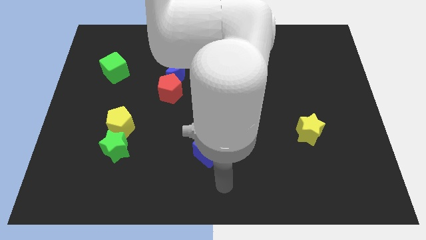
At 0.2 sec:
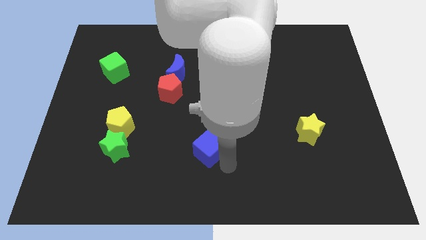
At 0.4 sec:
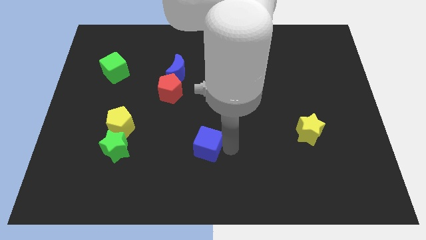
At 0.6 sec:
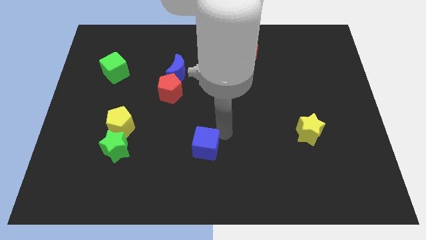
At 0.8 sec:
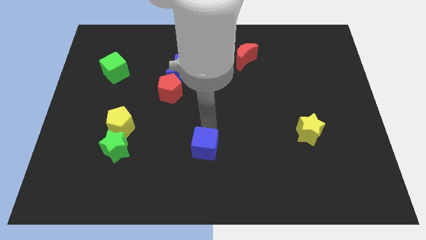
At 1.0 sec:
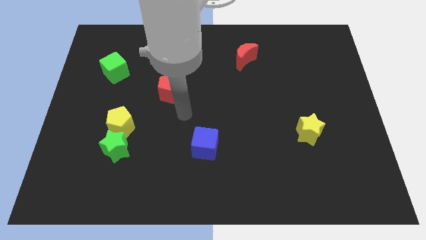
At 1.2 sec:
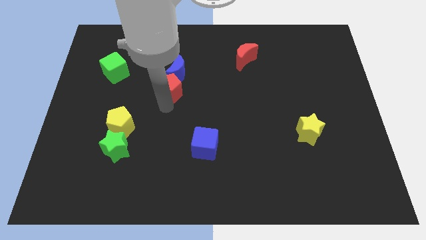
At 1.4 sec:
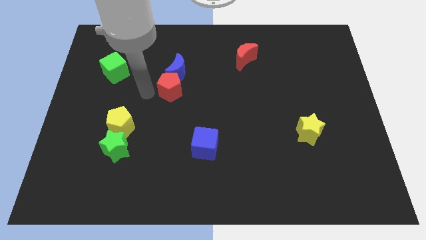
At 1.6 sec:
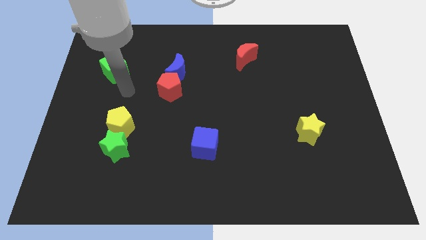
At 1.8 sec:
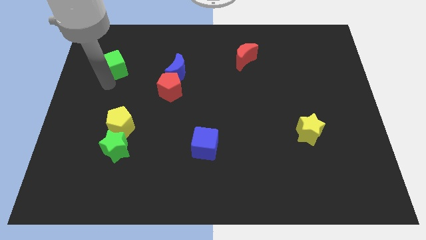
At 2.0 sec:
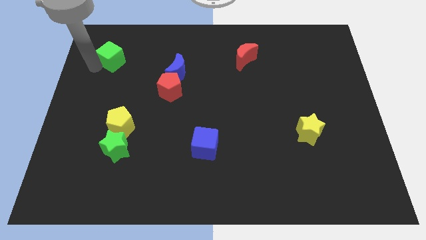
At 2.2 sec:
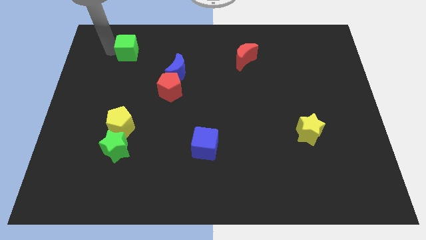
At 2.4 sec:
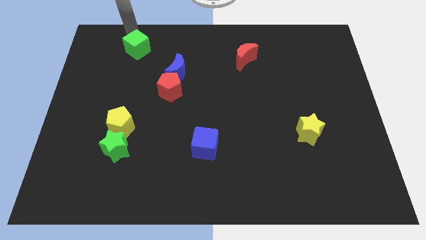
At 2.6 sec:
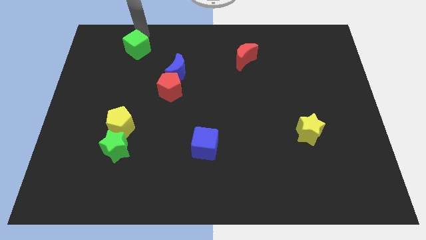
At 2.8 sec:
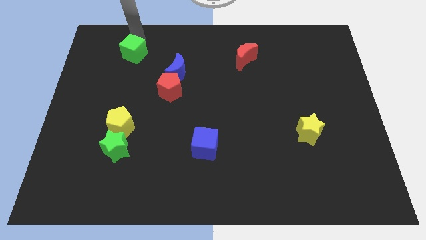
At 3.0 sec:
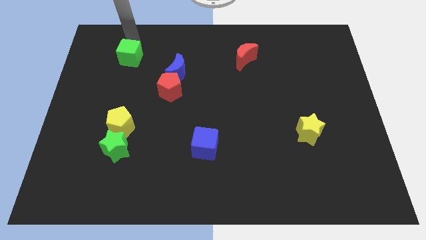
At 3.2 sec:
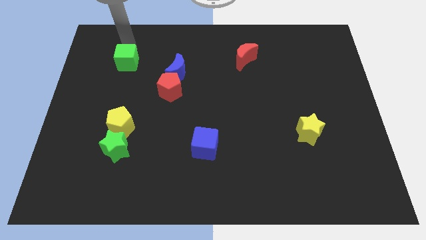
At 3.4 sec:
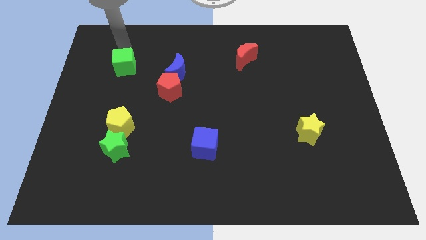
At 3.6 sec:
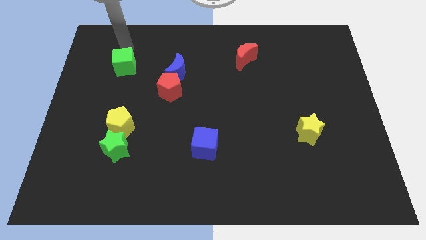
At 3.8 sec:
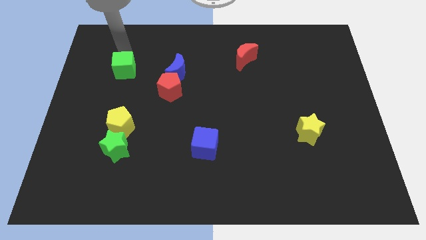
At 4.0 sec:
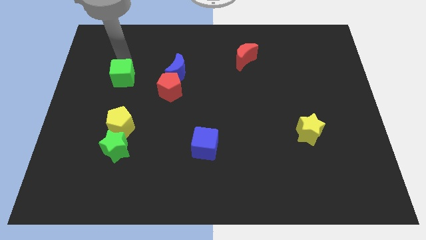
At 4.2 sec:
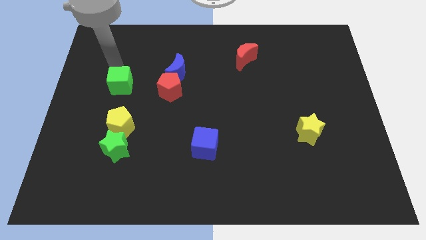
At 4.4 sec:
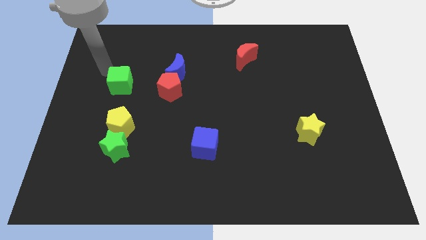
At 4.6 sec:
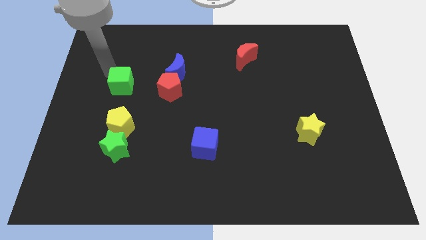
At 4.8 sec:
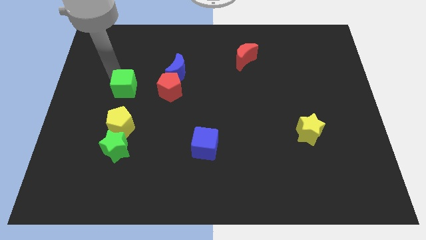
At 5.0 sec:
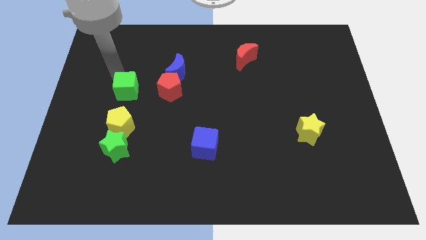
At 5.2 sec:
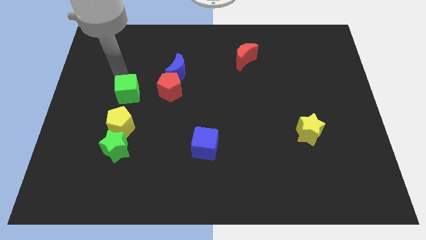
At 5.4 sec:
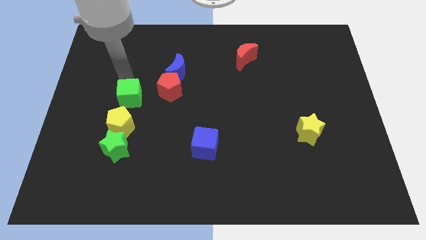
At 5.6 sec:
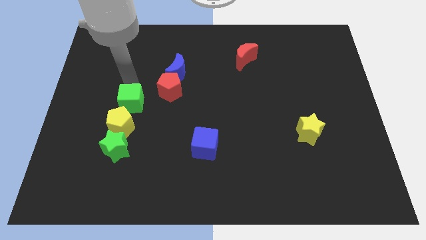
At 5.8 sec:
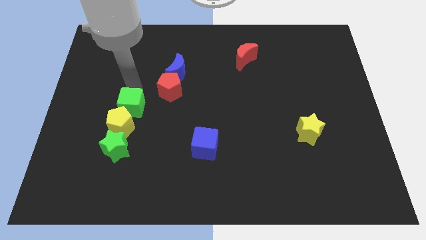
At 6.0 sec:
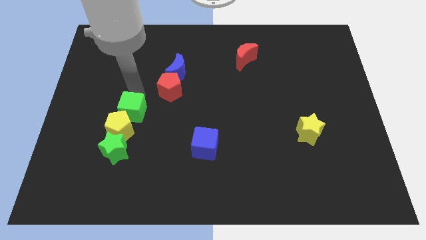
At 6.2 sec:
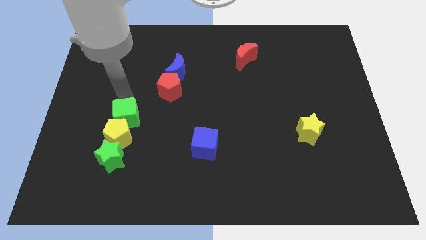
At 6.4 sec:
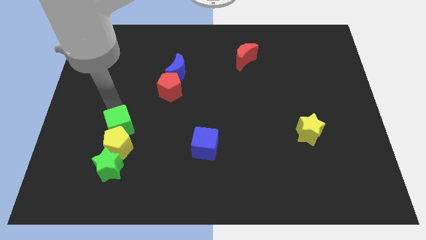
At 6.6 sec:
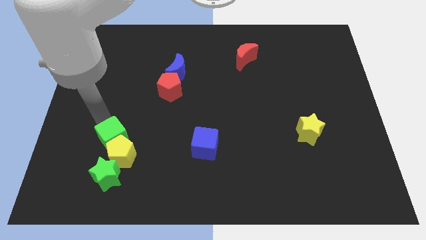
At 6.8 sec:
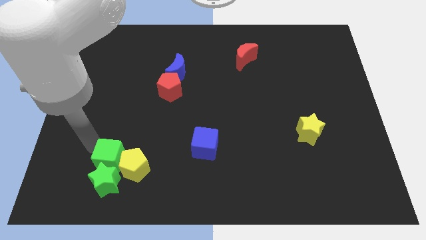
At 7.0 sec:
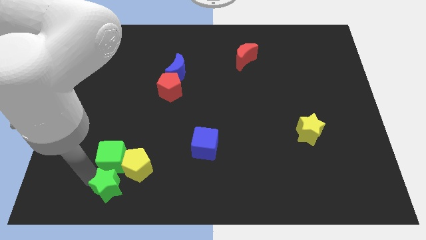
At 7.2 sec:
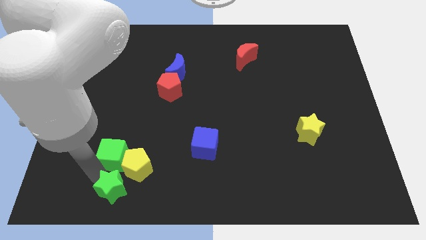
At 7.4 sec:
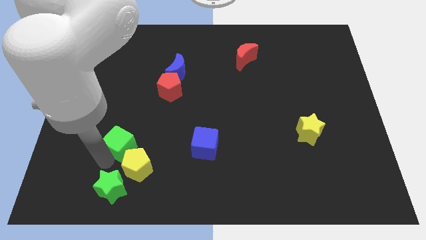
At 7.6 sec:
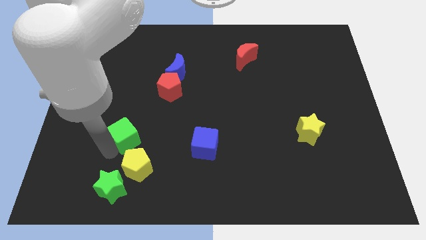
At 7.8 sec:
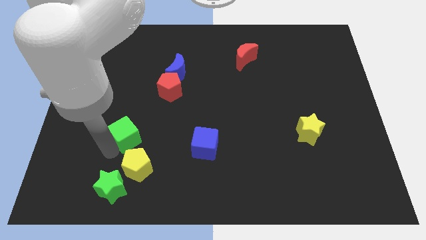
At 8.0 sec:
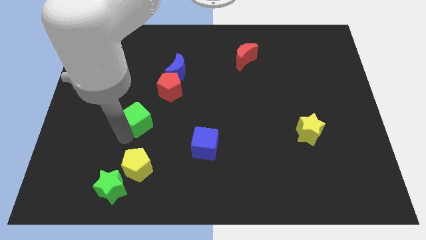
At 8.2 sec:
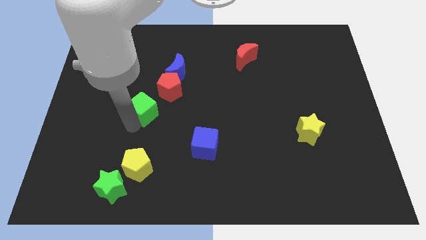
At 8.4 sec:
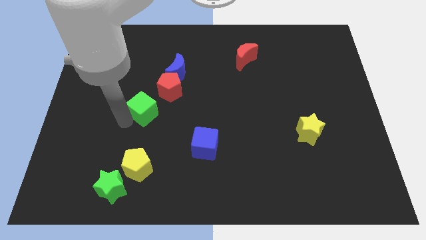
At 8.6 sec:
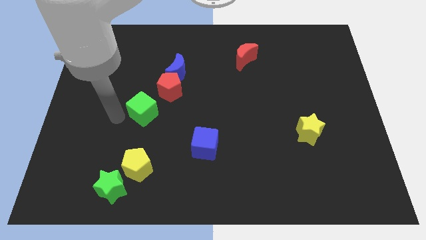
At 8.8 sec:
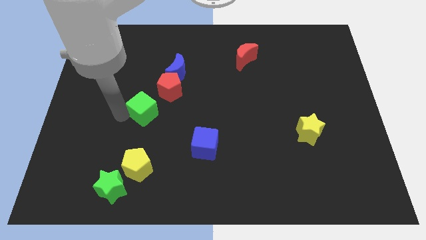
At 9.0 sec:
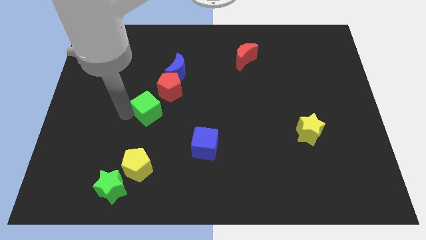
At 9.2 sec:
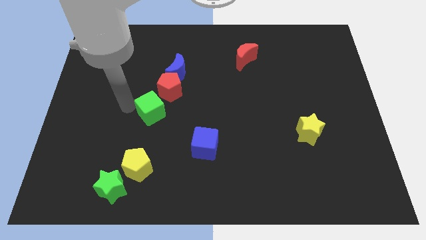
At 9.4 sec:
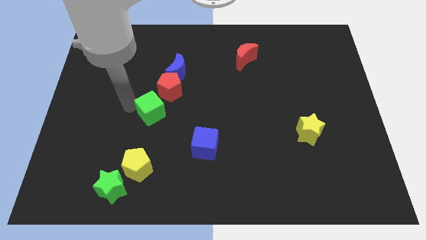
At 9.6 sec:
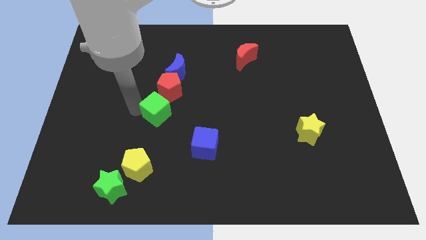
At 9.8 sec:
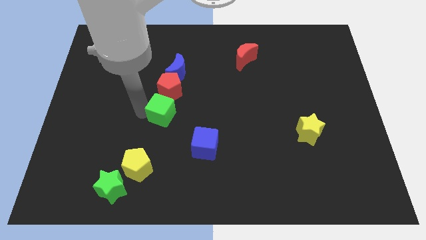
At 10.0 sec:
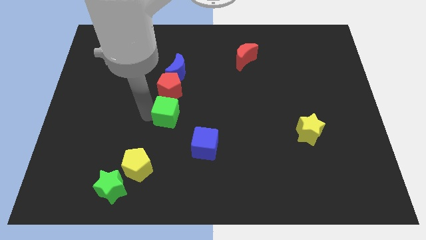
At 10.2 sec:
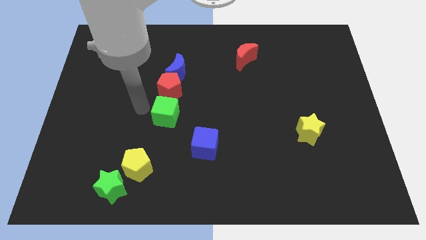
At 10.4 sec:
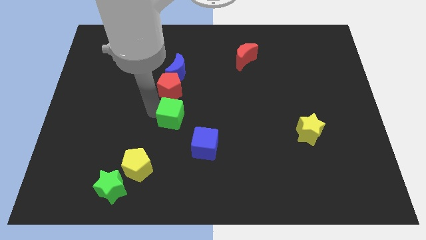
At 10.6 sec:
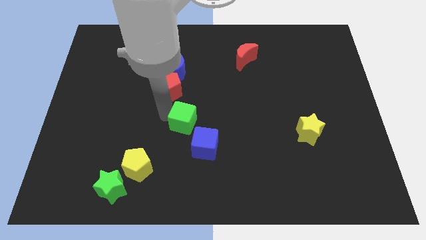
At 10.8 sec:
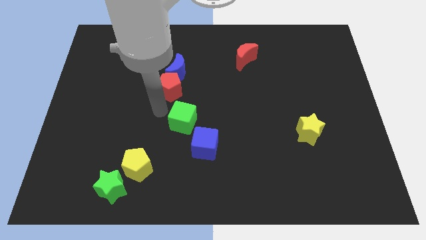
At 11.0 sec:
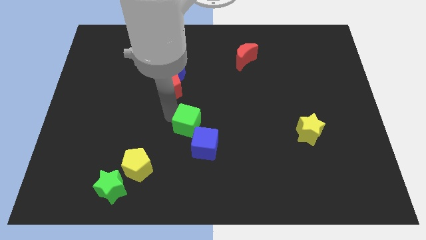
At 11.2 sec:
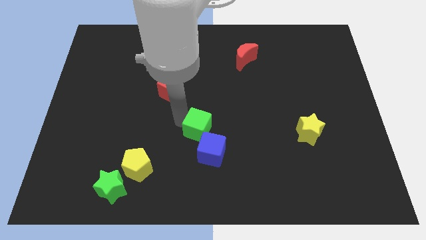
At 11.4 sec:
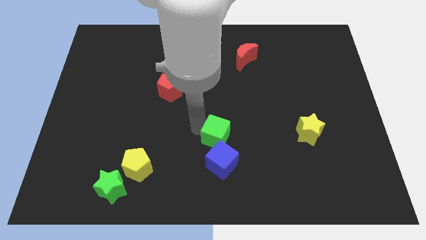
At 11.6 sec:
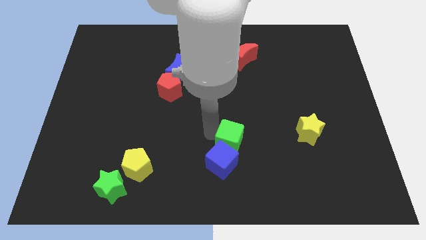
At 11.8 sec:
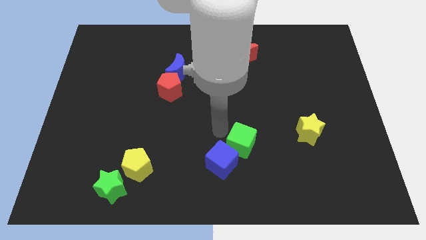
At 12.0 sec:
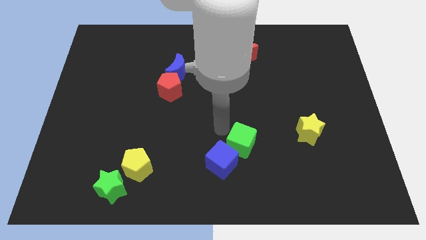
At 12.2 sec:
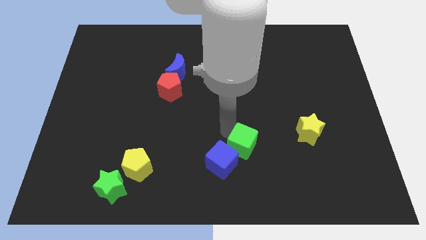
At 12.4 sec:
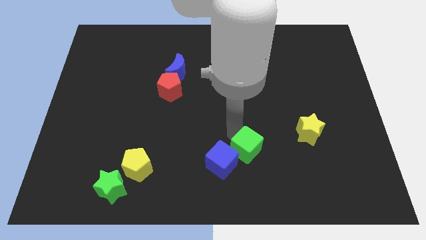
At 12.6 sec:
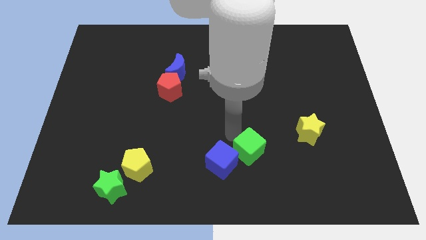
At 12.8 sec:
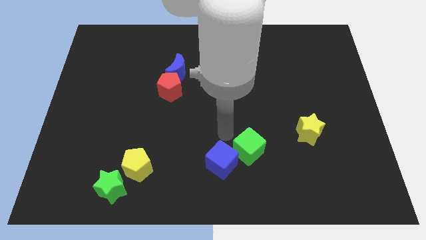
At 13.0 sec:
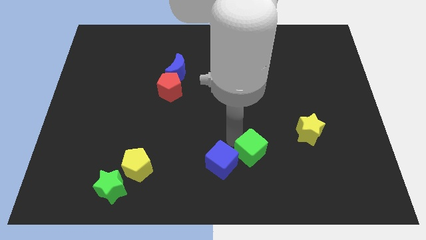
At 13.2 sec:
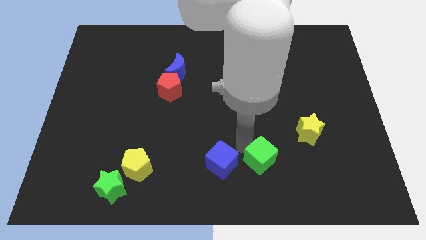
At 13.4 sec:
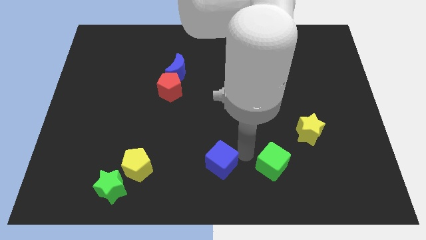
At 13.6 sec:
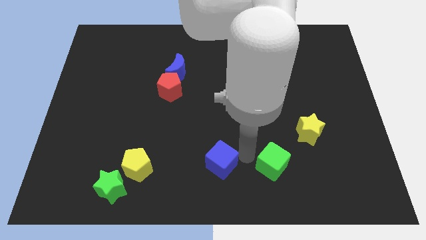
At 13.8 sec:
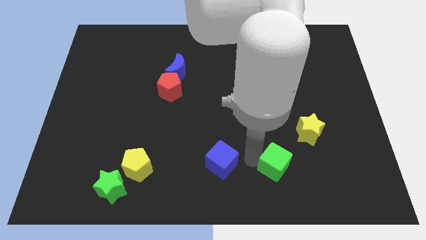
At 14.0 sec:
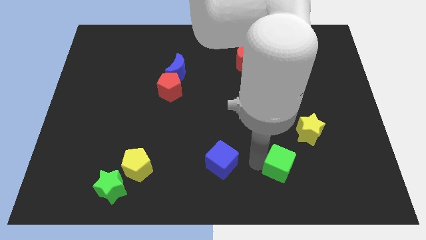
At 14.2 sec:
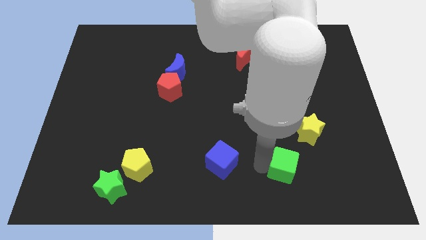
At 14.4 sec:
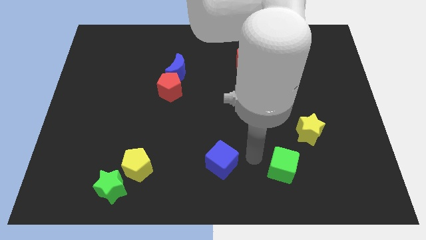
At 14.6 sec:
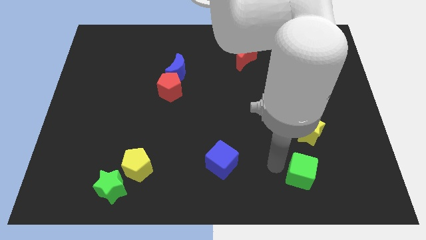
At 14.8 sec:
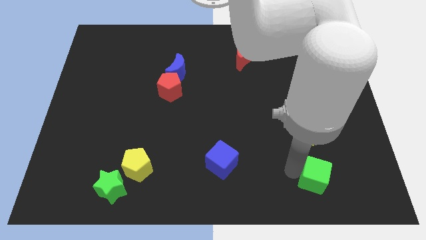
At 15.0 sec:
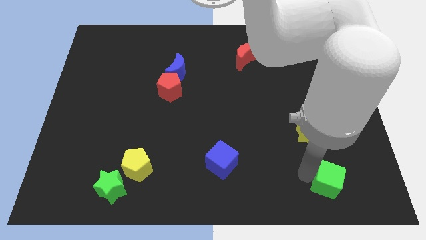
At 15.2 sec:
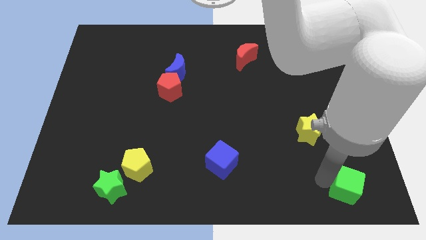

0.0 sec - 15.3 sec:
push the green cube to the lower right corner
